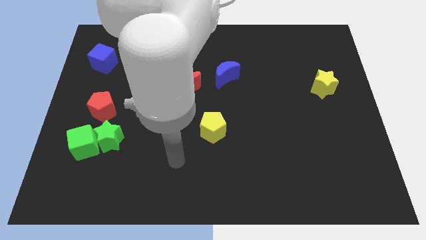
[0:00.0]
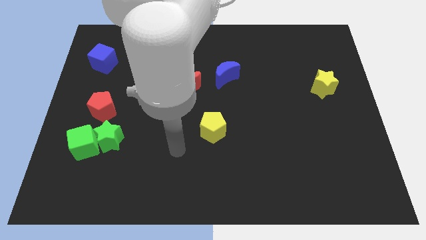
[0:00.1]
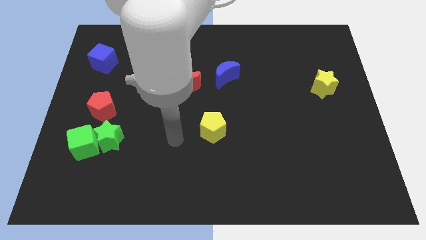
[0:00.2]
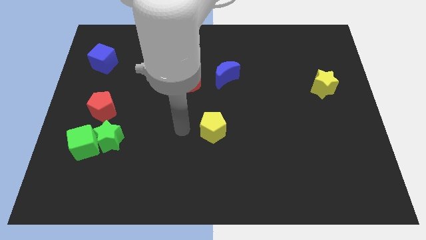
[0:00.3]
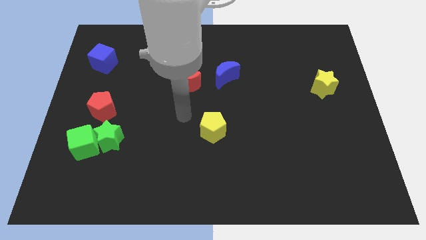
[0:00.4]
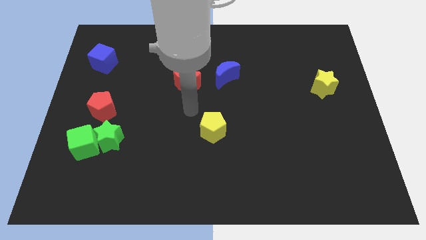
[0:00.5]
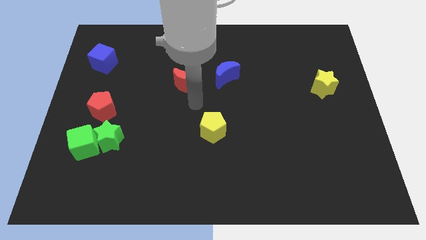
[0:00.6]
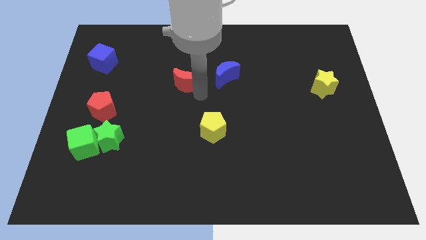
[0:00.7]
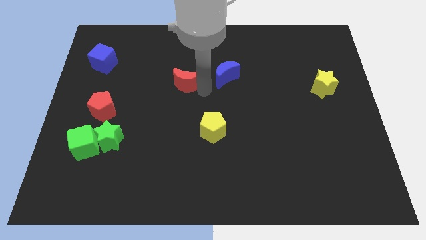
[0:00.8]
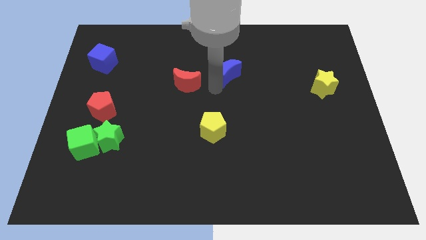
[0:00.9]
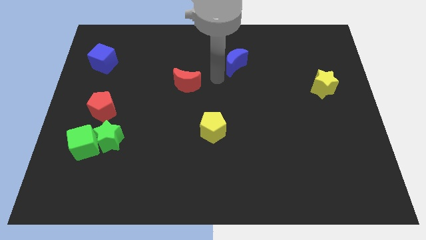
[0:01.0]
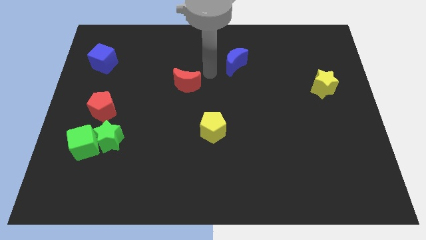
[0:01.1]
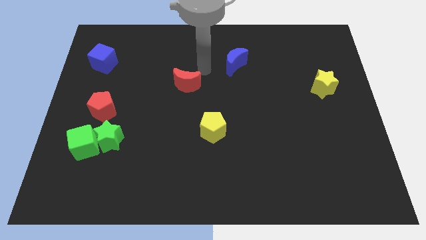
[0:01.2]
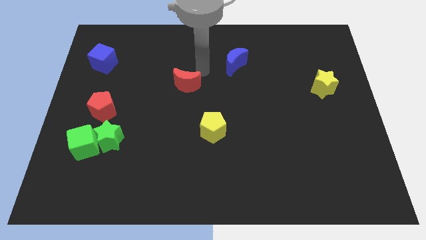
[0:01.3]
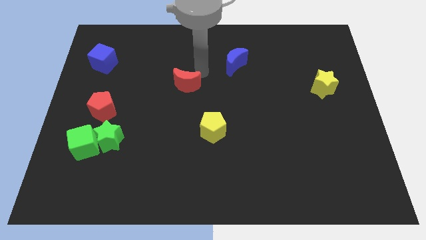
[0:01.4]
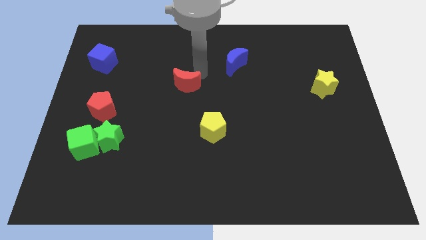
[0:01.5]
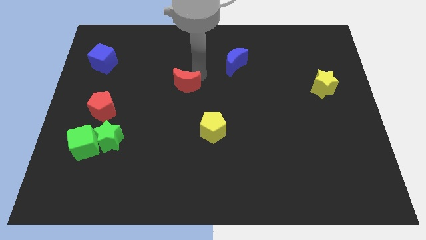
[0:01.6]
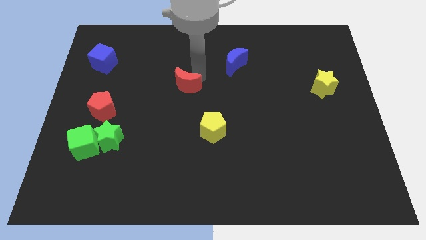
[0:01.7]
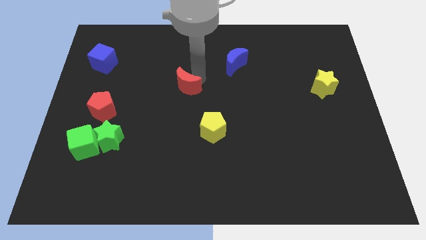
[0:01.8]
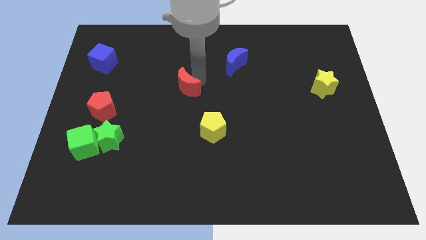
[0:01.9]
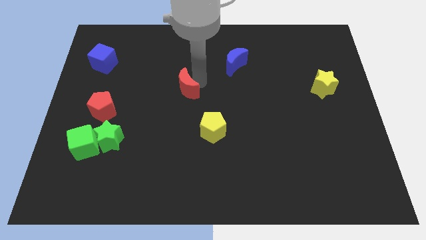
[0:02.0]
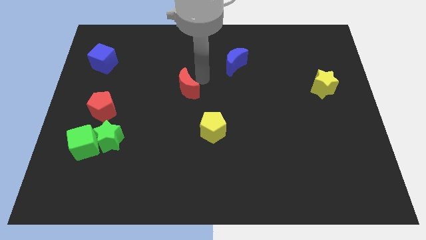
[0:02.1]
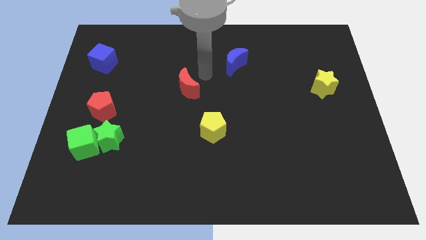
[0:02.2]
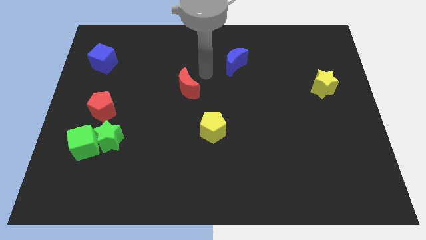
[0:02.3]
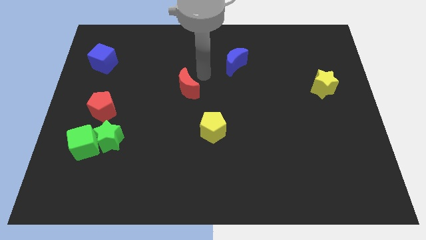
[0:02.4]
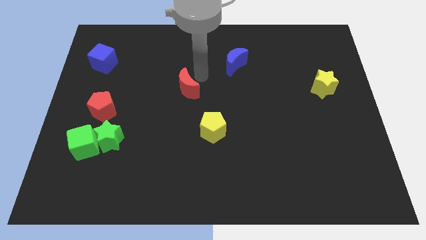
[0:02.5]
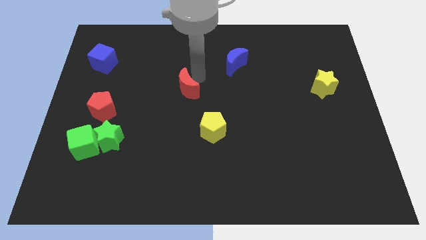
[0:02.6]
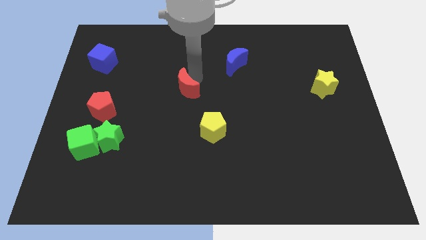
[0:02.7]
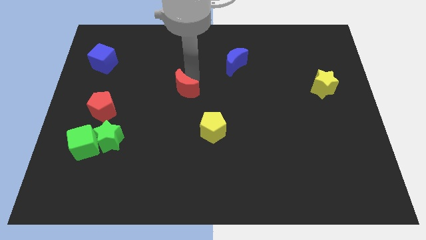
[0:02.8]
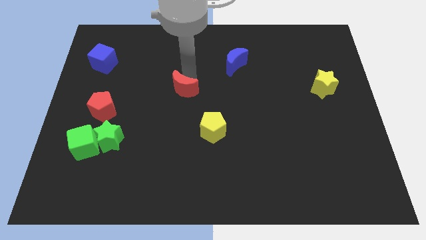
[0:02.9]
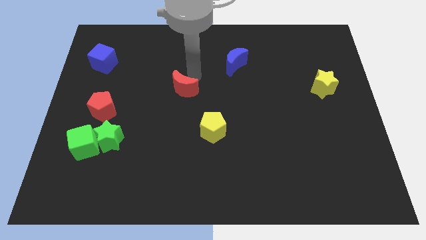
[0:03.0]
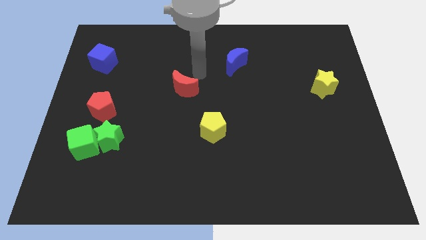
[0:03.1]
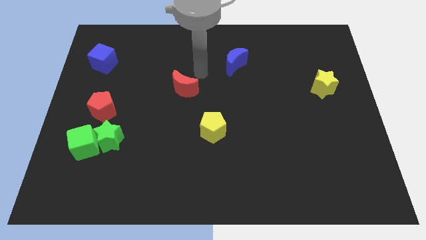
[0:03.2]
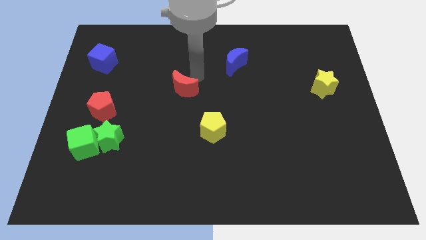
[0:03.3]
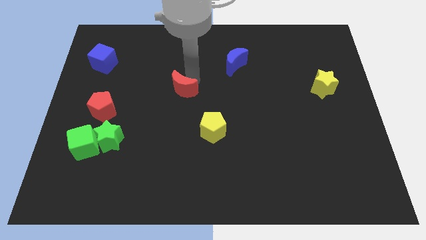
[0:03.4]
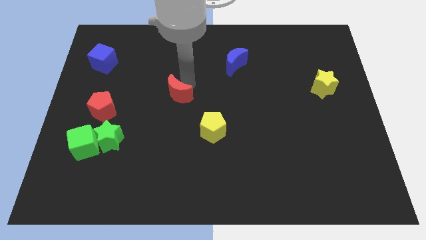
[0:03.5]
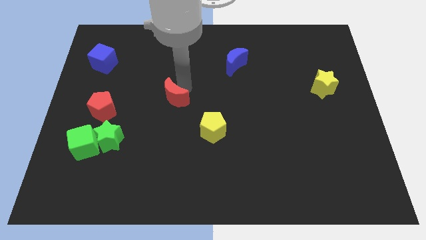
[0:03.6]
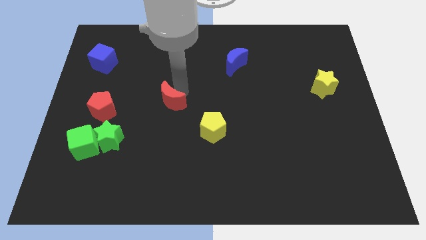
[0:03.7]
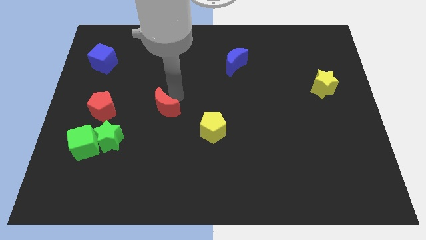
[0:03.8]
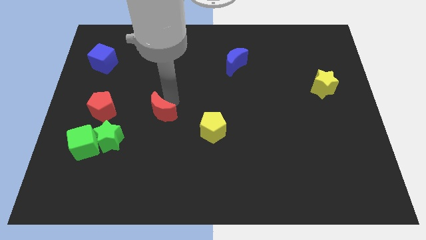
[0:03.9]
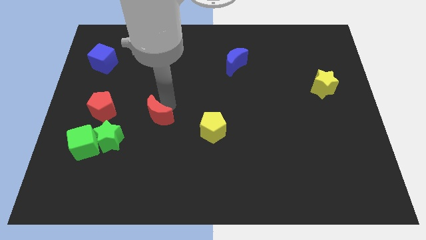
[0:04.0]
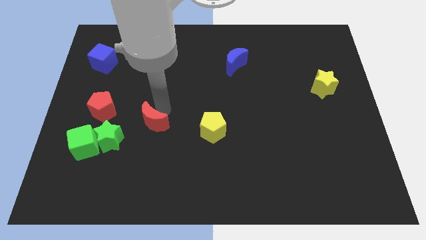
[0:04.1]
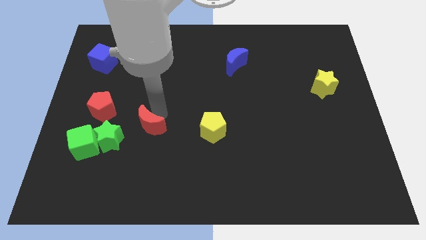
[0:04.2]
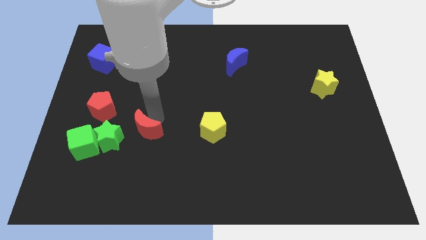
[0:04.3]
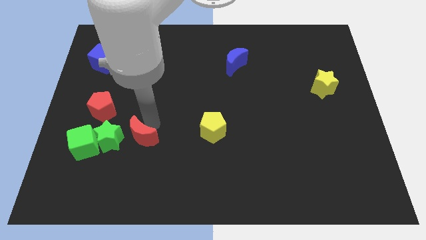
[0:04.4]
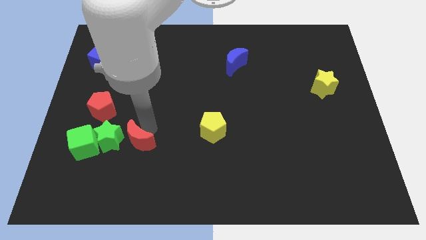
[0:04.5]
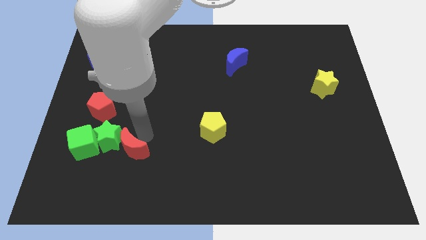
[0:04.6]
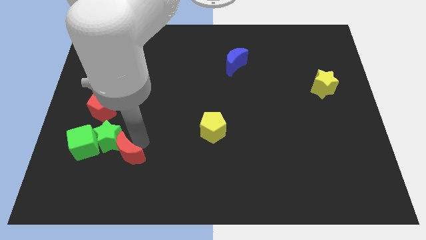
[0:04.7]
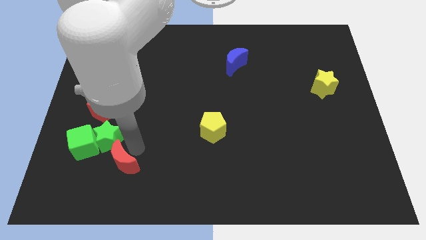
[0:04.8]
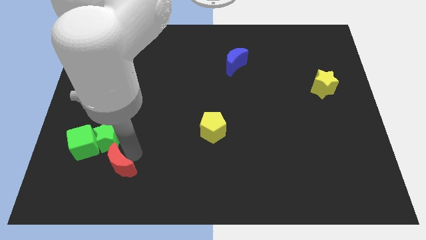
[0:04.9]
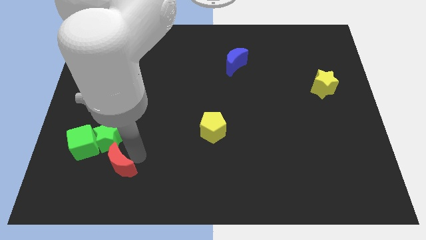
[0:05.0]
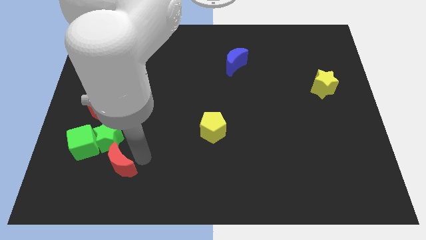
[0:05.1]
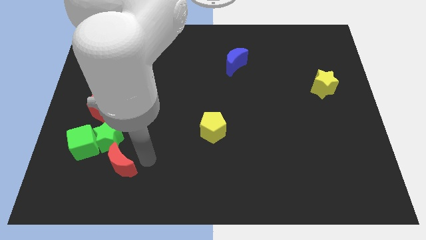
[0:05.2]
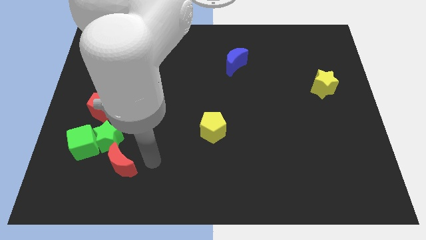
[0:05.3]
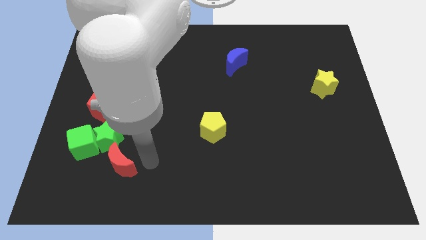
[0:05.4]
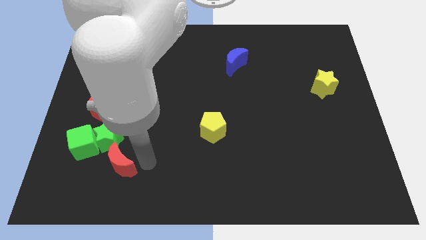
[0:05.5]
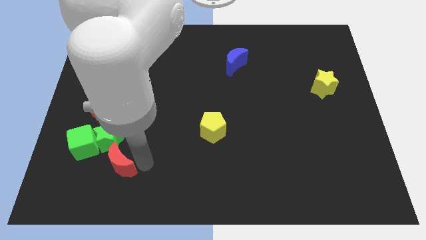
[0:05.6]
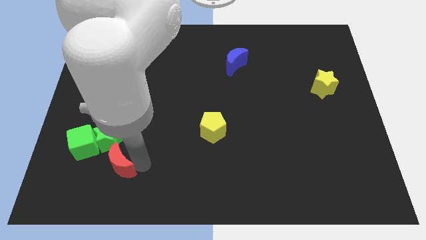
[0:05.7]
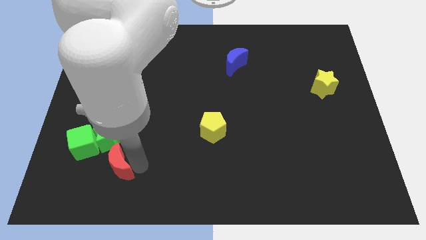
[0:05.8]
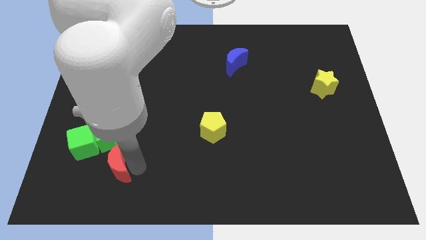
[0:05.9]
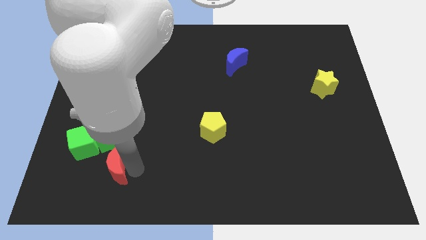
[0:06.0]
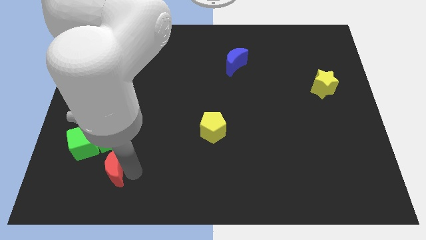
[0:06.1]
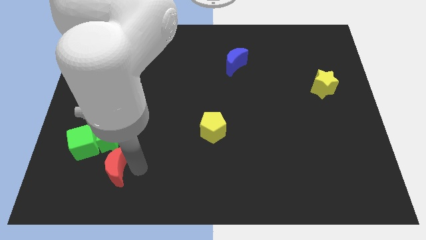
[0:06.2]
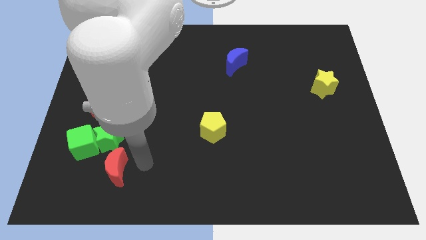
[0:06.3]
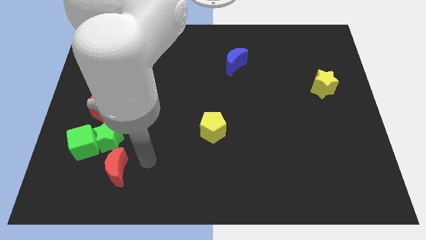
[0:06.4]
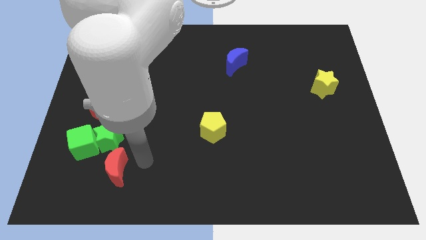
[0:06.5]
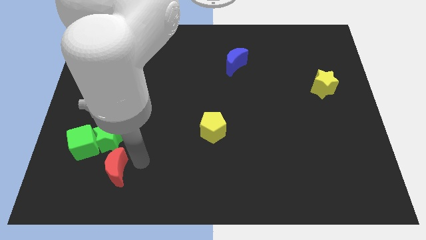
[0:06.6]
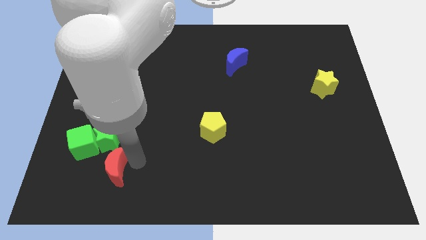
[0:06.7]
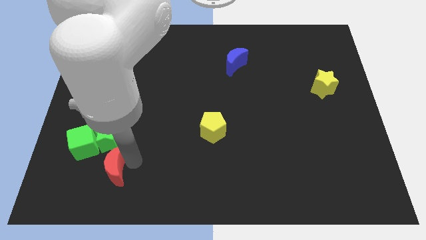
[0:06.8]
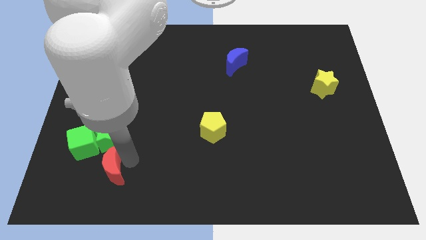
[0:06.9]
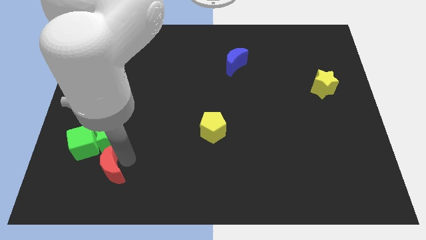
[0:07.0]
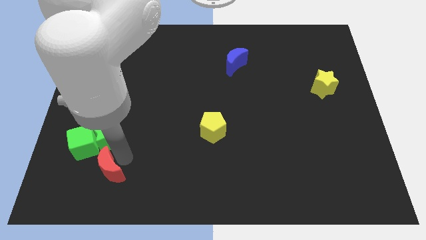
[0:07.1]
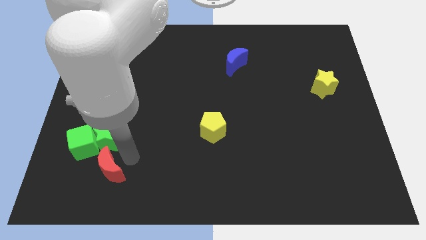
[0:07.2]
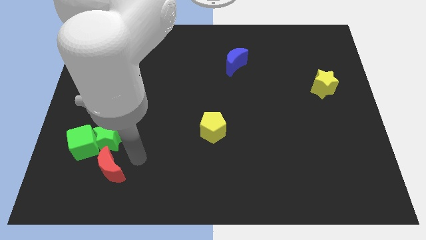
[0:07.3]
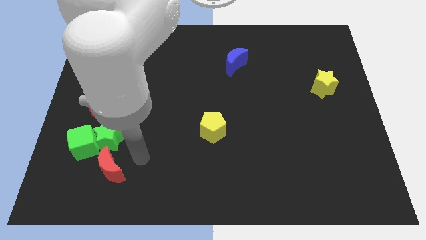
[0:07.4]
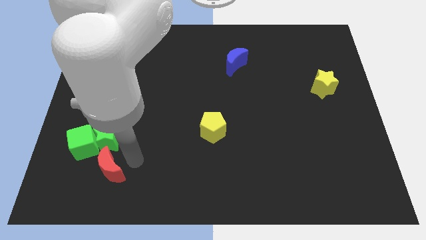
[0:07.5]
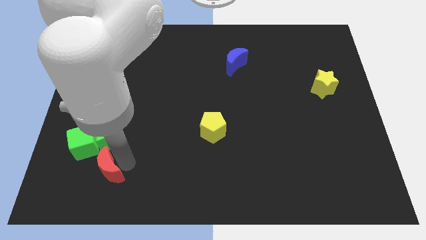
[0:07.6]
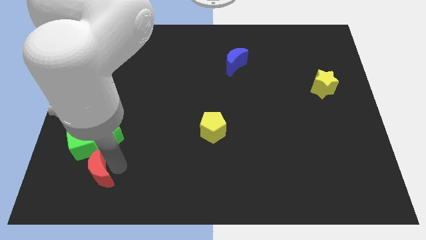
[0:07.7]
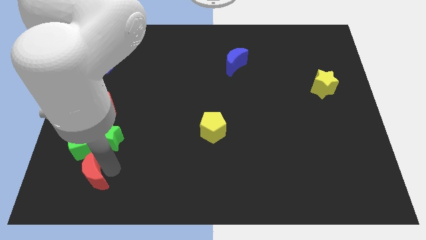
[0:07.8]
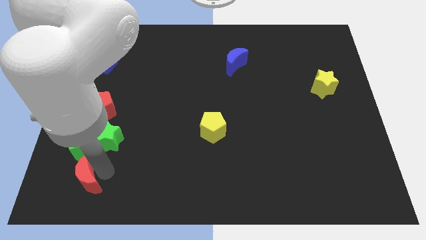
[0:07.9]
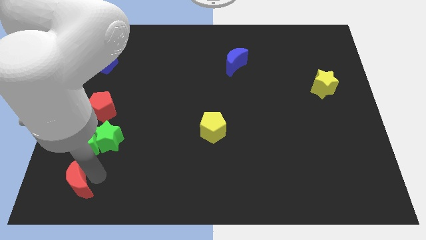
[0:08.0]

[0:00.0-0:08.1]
move the red moon to the bottom left of the board
